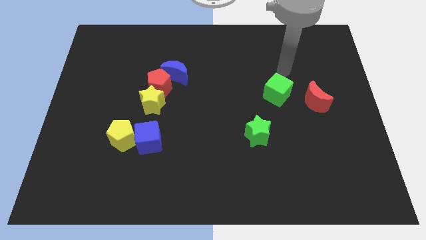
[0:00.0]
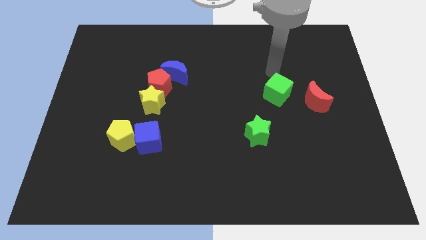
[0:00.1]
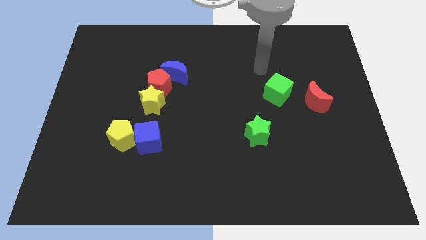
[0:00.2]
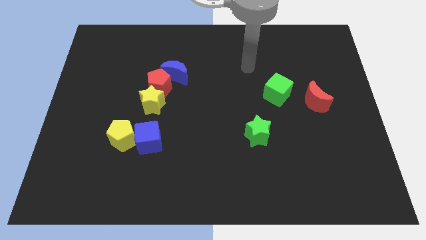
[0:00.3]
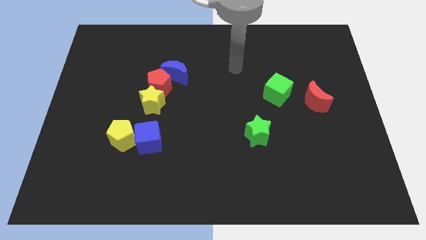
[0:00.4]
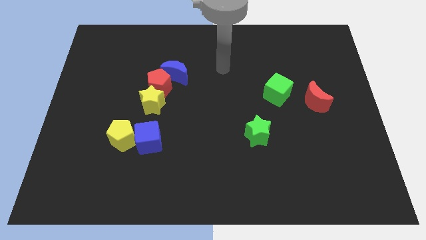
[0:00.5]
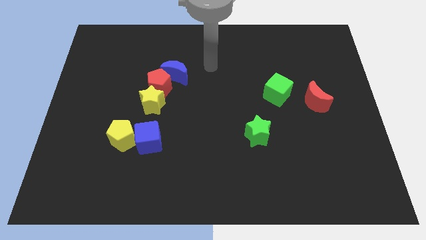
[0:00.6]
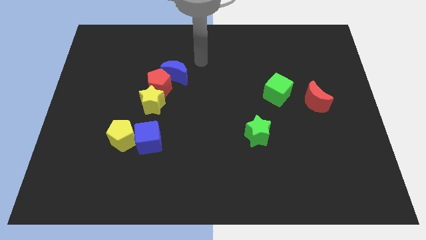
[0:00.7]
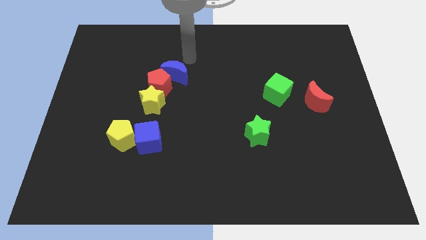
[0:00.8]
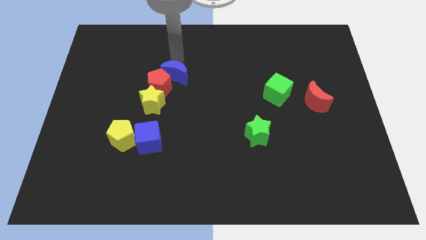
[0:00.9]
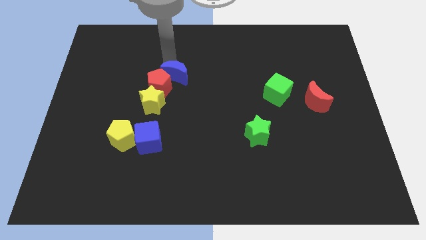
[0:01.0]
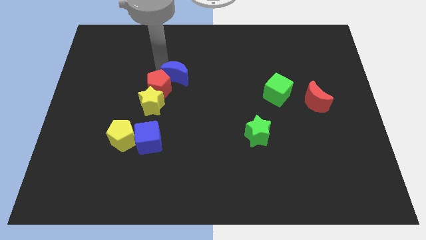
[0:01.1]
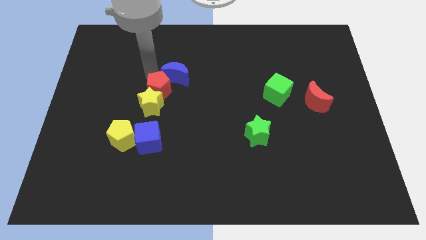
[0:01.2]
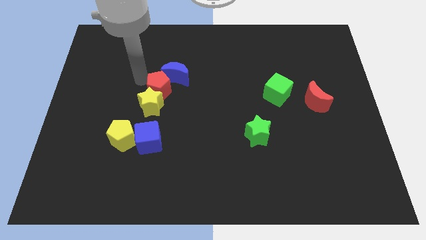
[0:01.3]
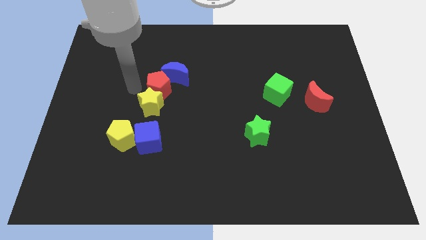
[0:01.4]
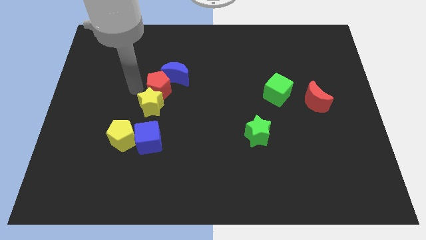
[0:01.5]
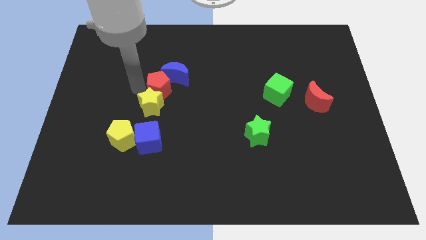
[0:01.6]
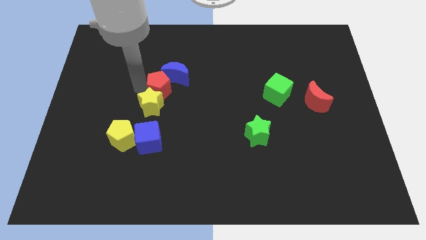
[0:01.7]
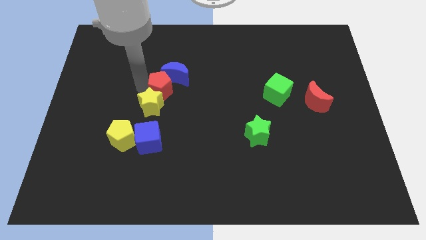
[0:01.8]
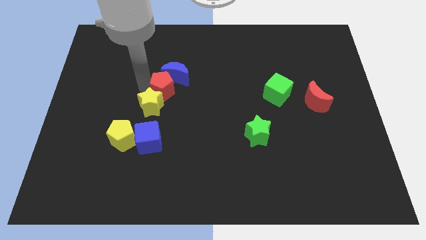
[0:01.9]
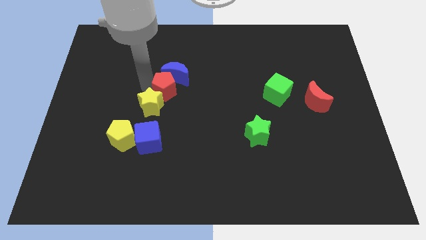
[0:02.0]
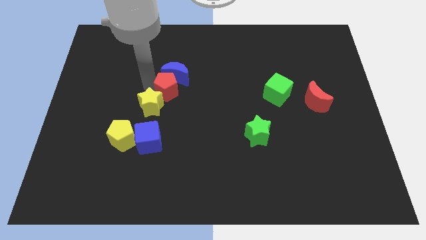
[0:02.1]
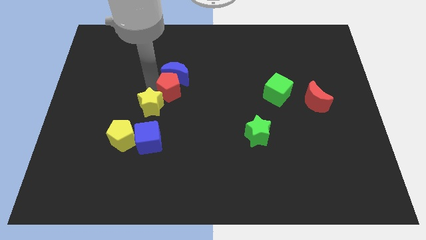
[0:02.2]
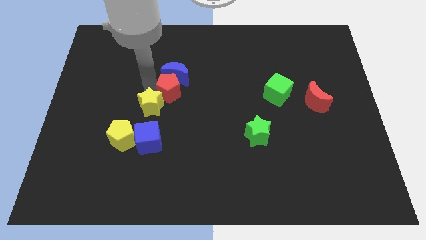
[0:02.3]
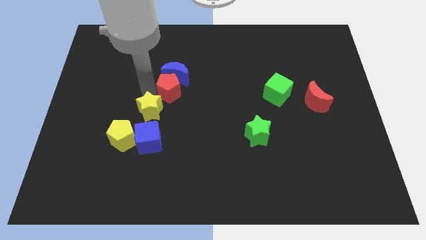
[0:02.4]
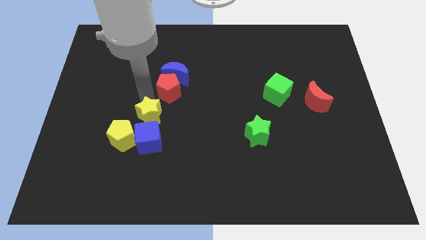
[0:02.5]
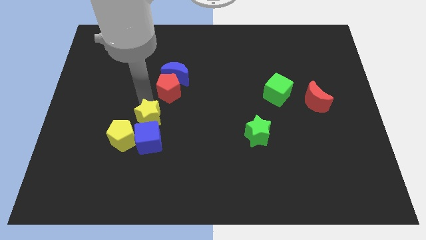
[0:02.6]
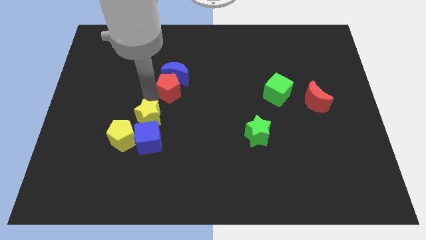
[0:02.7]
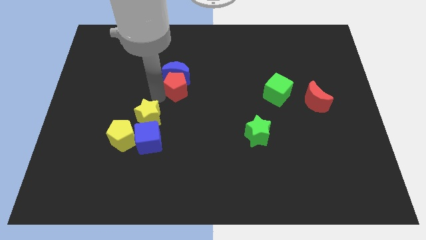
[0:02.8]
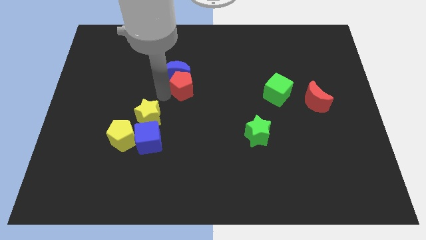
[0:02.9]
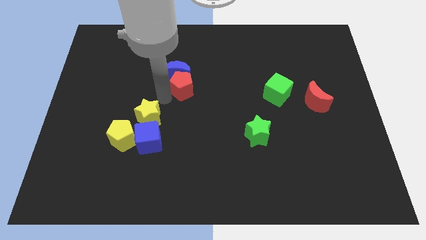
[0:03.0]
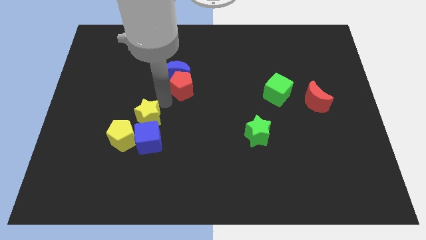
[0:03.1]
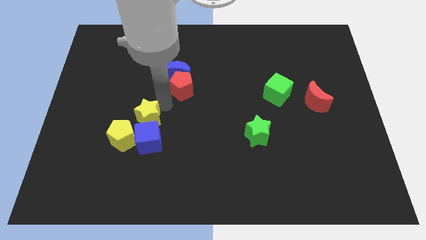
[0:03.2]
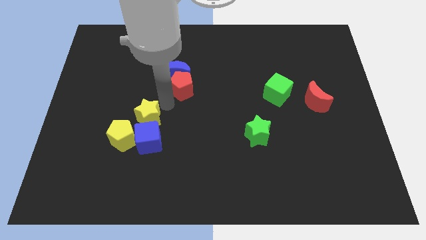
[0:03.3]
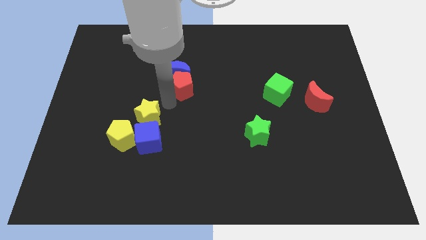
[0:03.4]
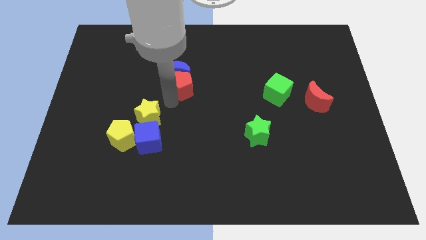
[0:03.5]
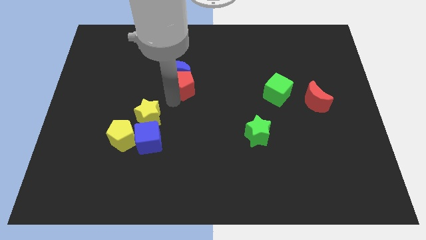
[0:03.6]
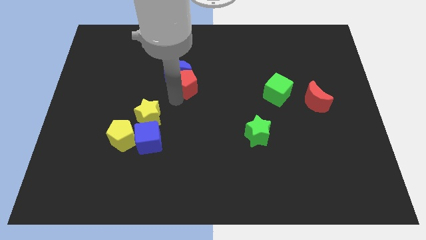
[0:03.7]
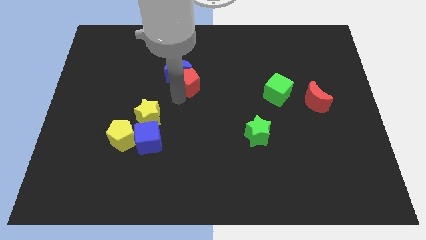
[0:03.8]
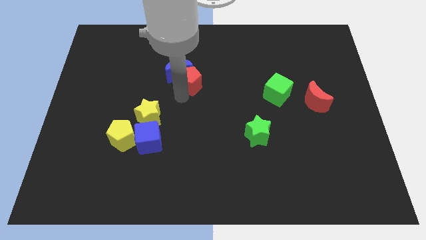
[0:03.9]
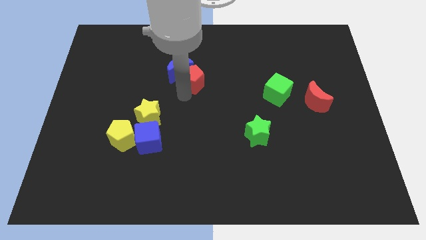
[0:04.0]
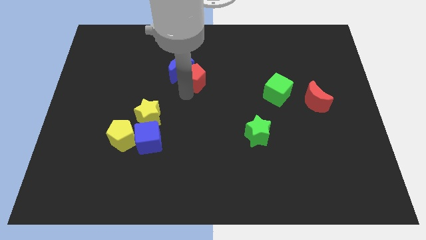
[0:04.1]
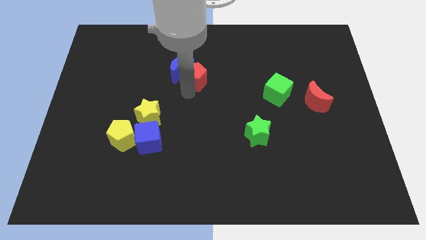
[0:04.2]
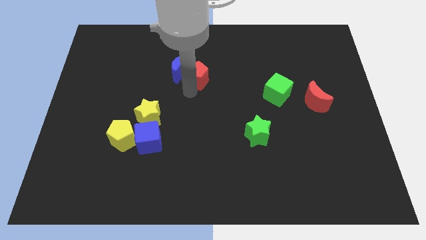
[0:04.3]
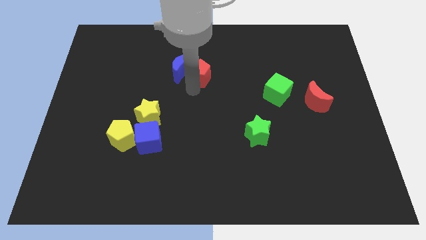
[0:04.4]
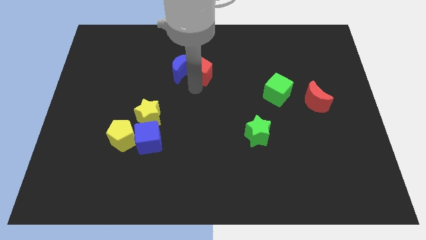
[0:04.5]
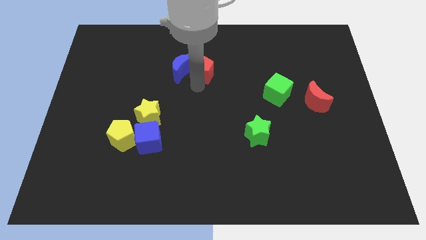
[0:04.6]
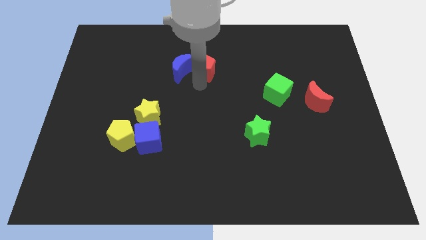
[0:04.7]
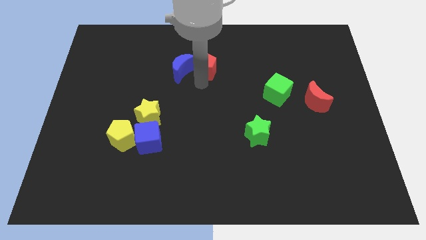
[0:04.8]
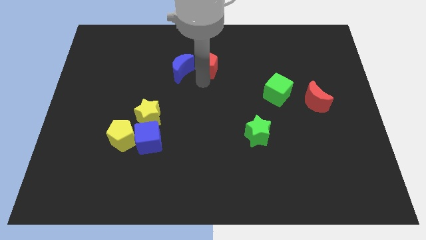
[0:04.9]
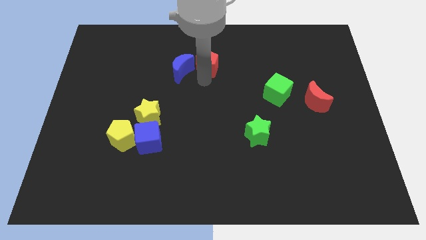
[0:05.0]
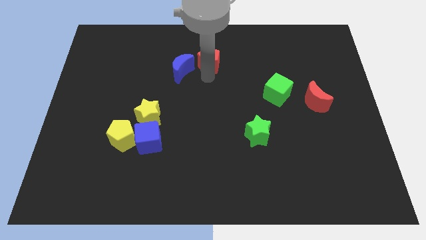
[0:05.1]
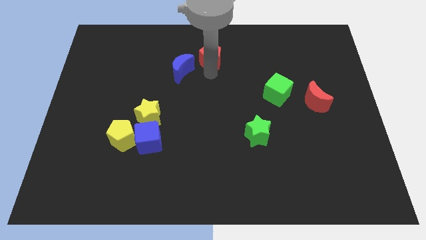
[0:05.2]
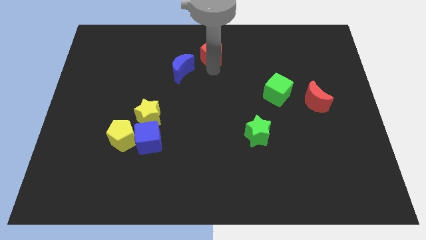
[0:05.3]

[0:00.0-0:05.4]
push the red pentagon to the towards your base

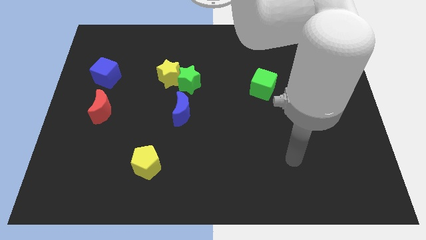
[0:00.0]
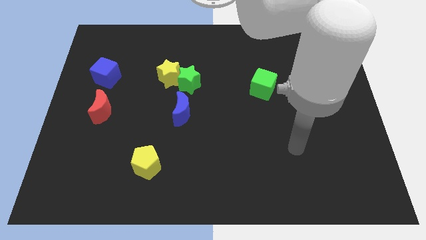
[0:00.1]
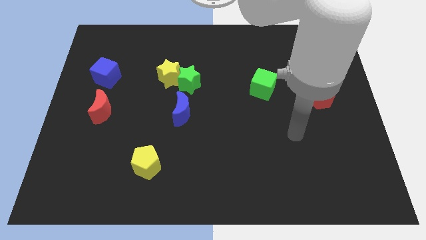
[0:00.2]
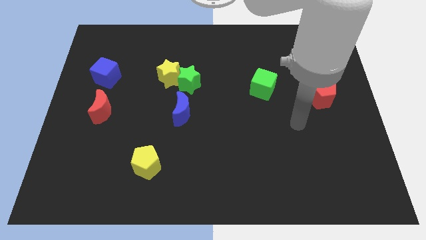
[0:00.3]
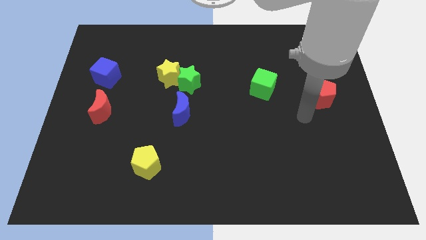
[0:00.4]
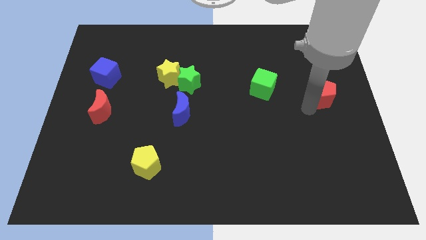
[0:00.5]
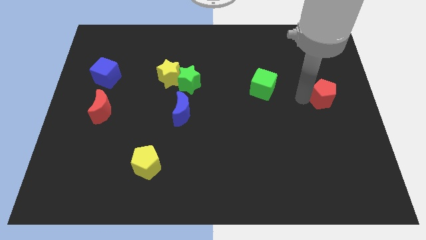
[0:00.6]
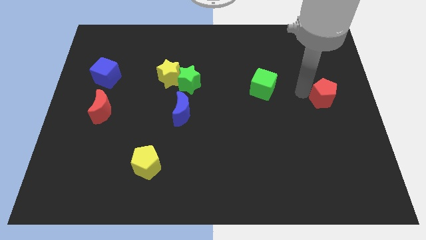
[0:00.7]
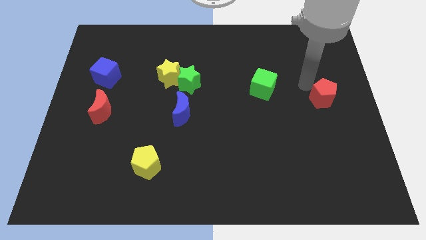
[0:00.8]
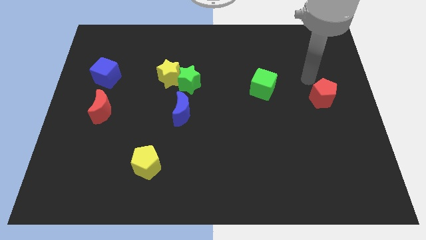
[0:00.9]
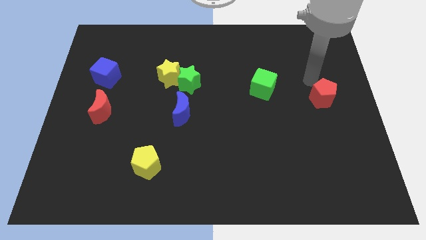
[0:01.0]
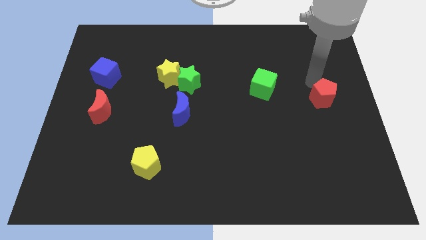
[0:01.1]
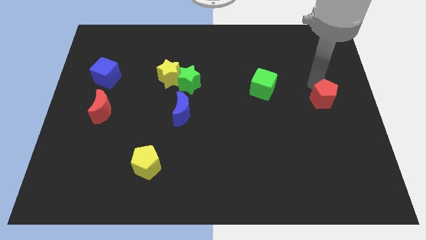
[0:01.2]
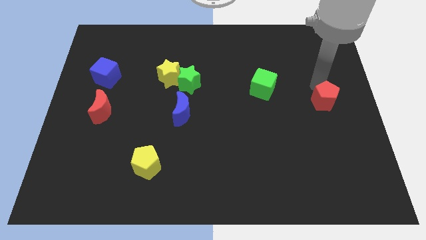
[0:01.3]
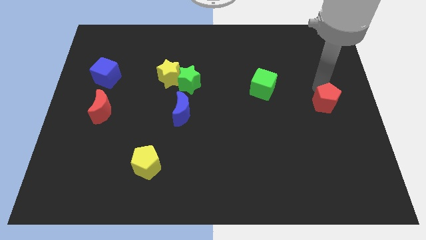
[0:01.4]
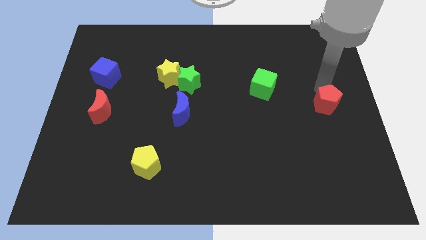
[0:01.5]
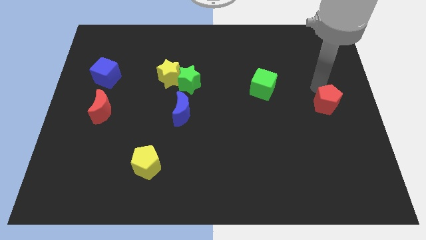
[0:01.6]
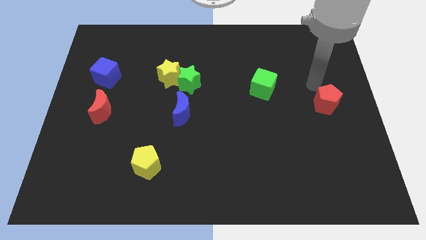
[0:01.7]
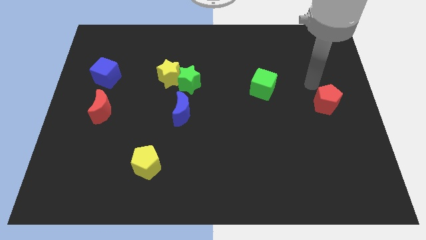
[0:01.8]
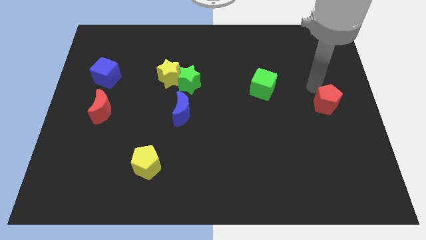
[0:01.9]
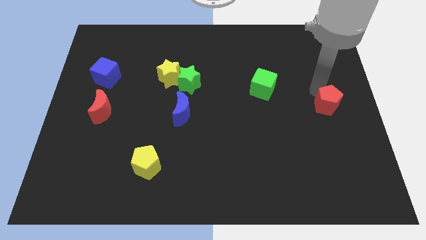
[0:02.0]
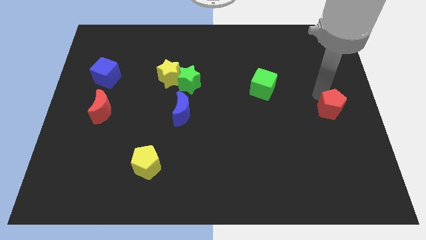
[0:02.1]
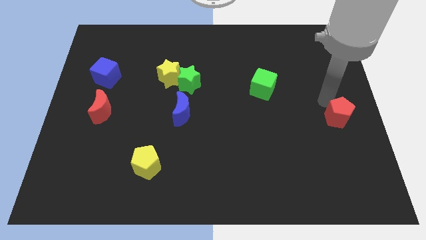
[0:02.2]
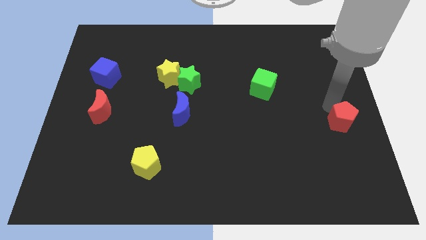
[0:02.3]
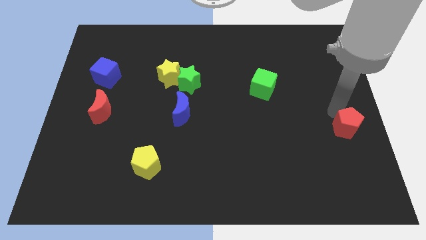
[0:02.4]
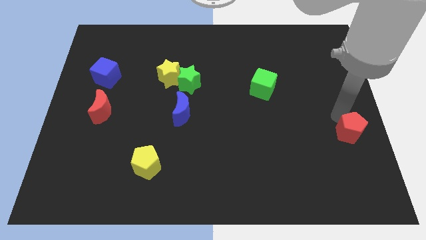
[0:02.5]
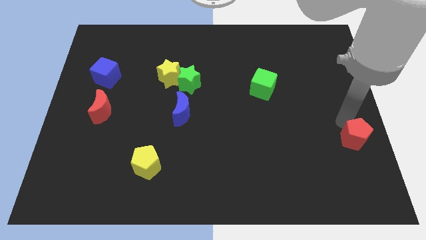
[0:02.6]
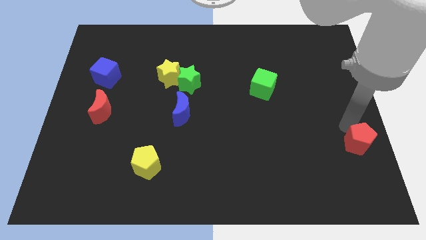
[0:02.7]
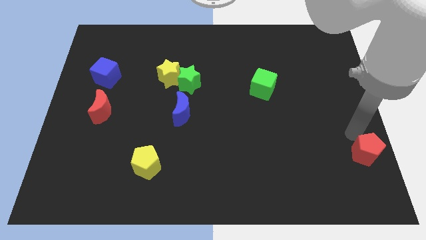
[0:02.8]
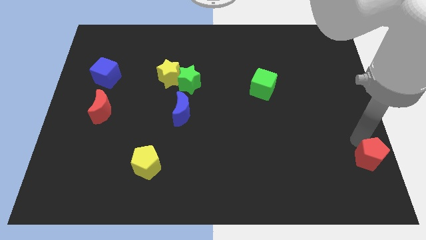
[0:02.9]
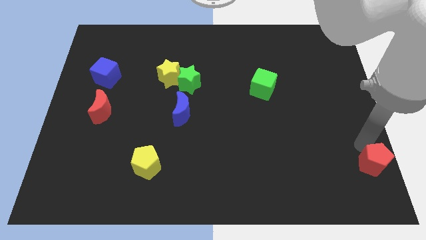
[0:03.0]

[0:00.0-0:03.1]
slide the red pentagon to the lower right corner
